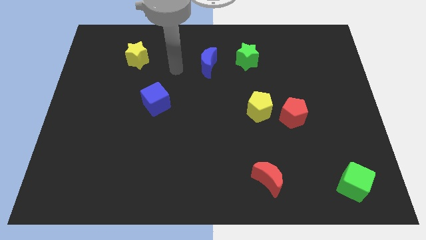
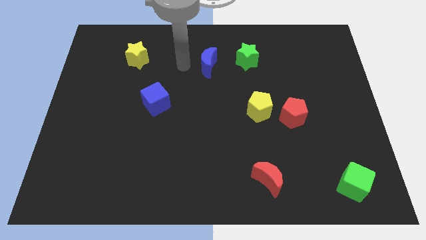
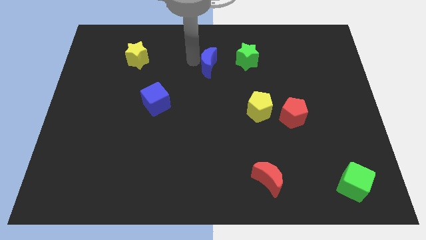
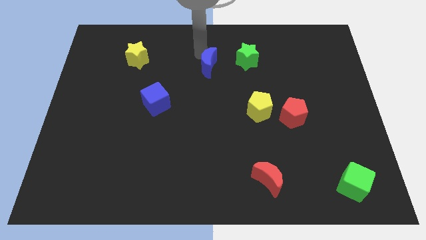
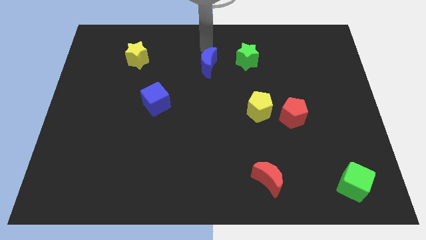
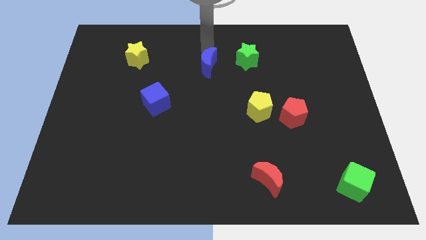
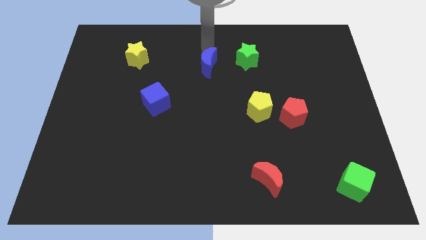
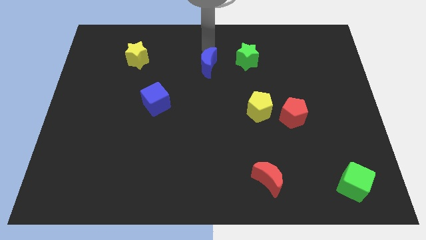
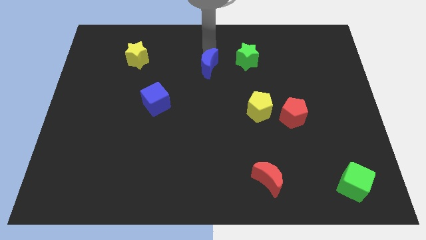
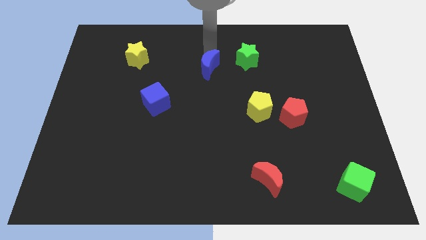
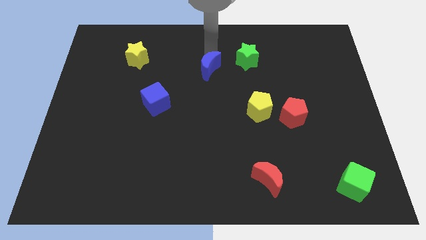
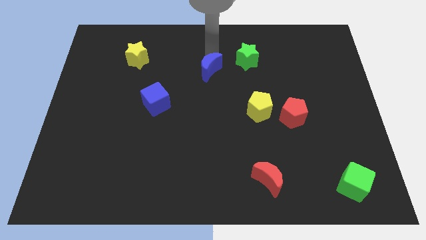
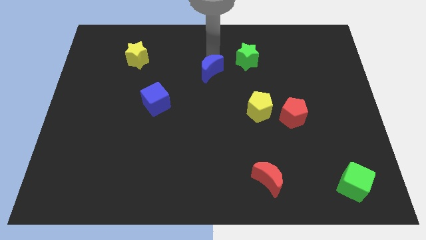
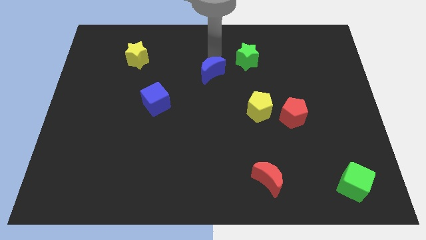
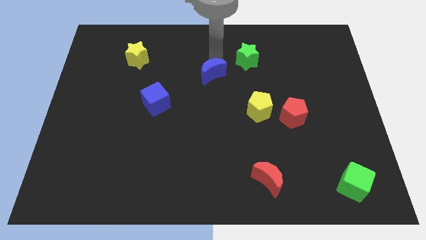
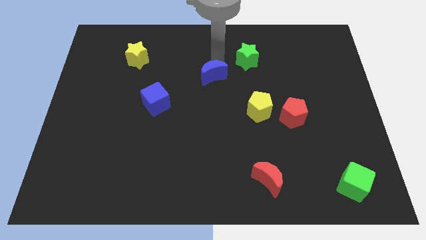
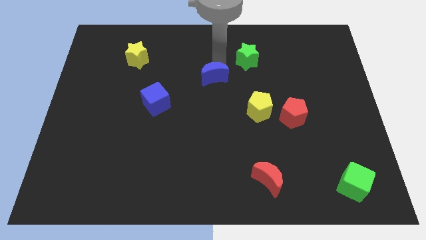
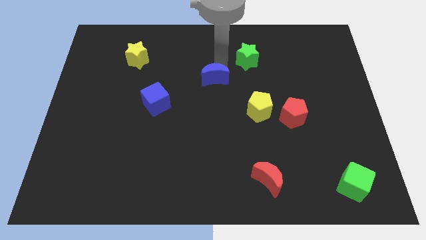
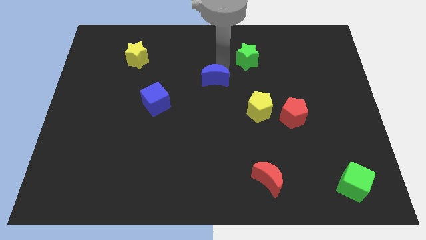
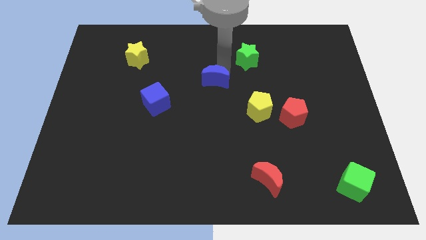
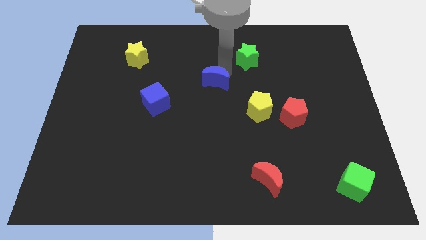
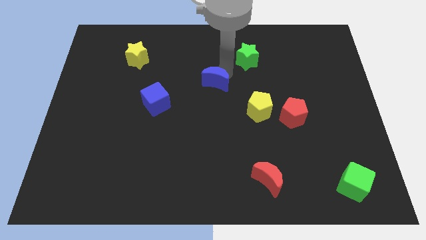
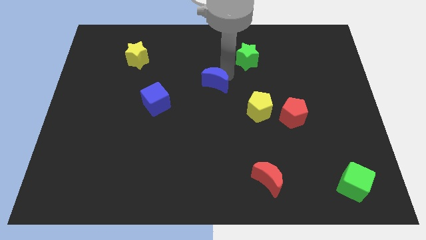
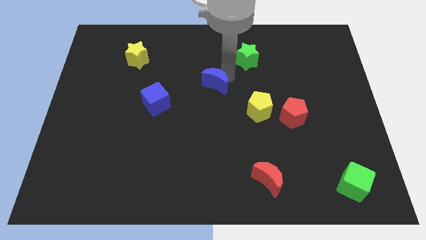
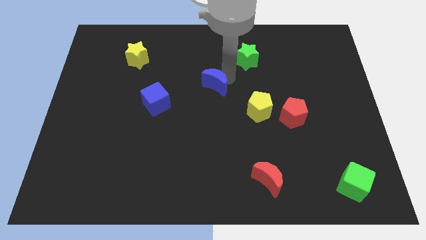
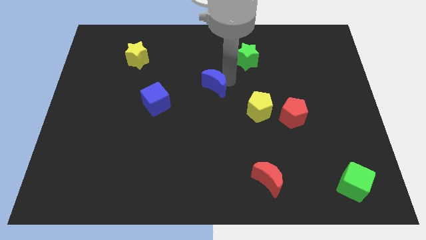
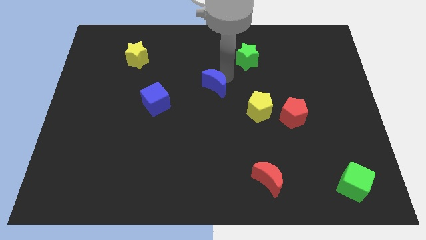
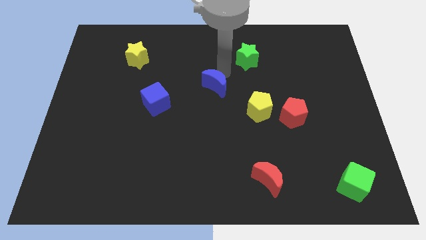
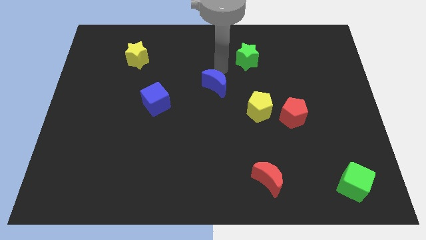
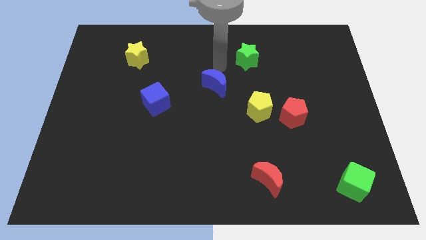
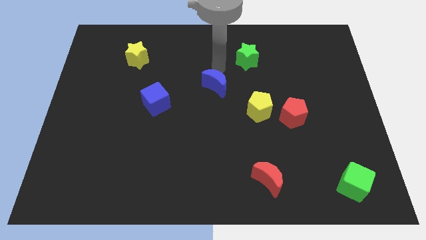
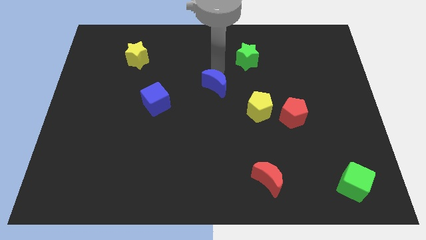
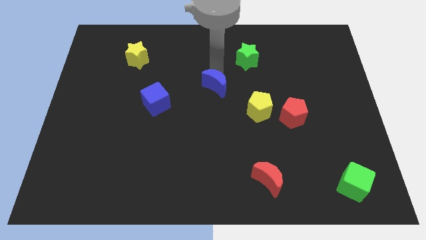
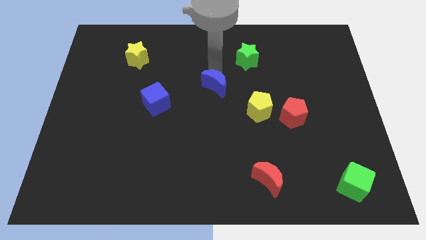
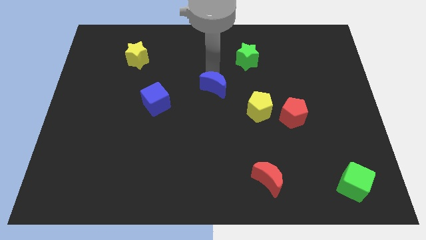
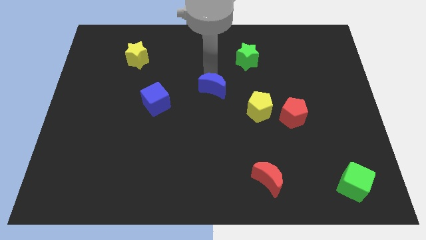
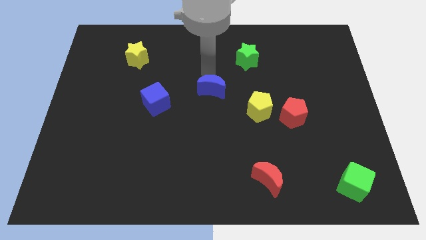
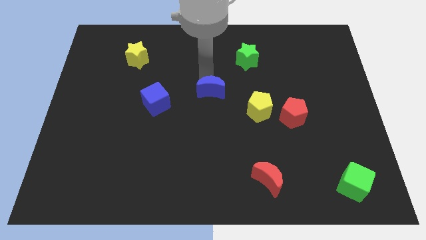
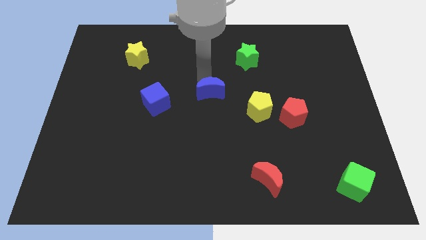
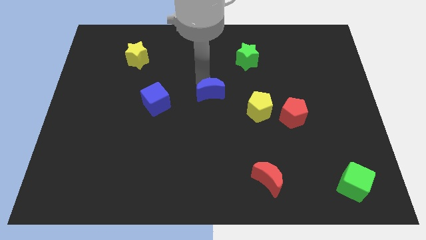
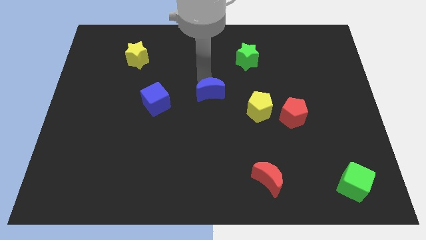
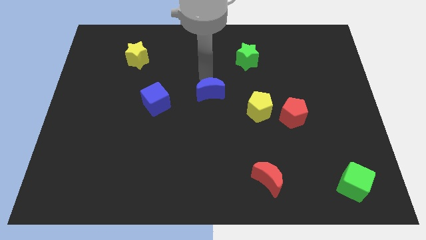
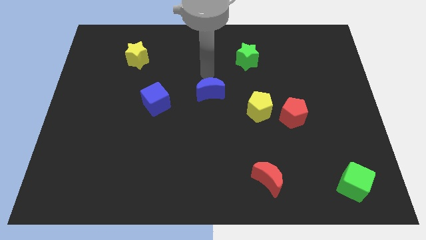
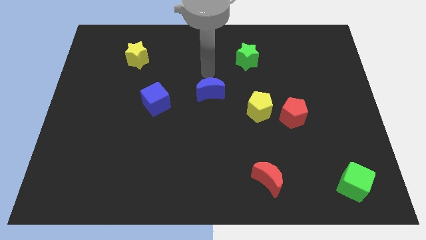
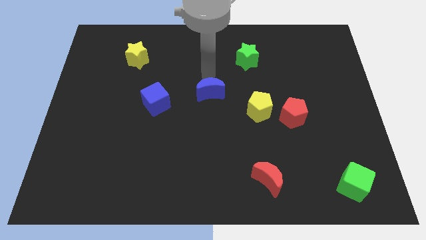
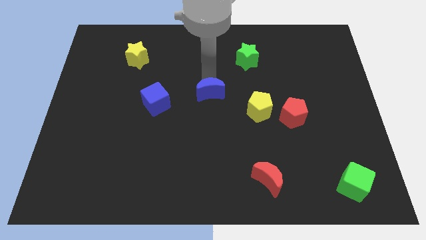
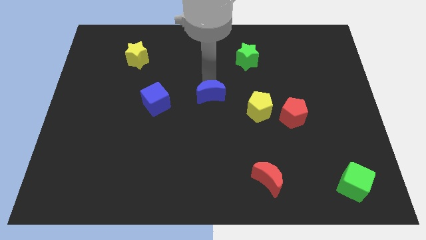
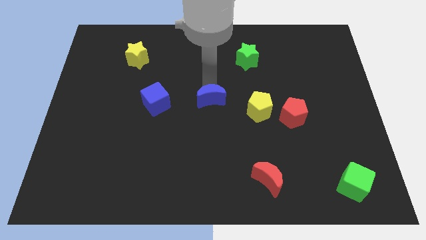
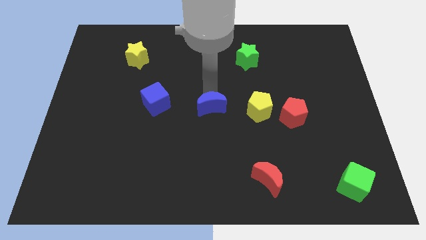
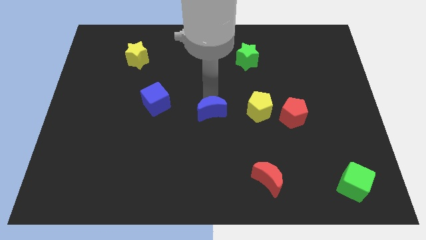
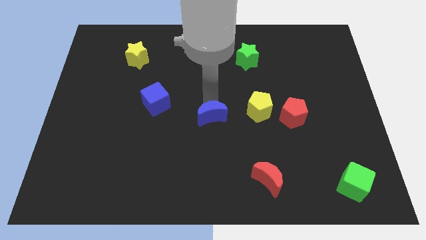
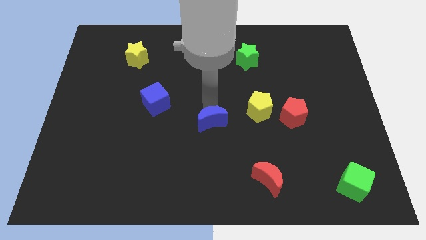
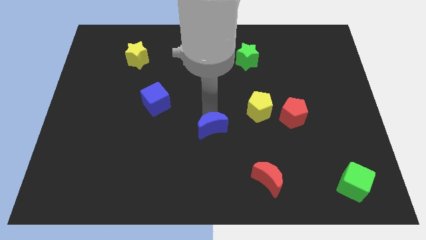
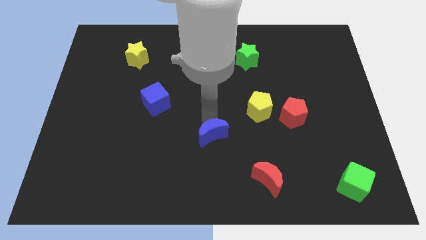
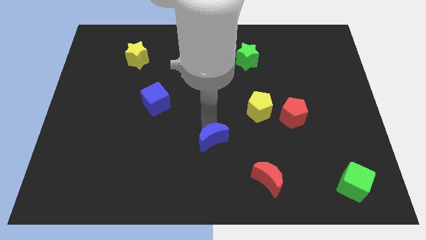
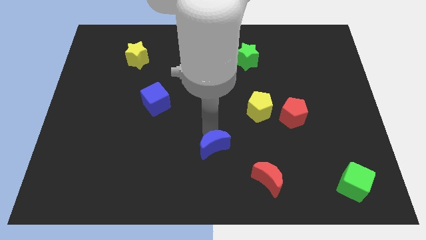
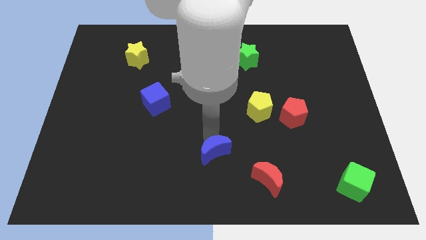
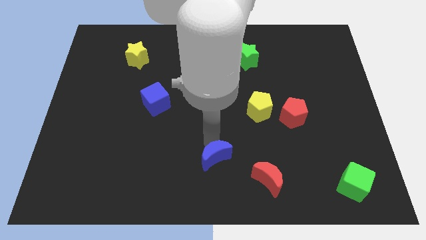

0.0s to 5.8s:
move the blue moon to the bottom side
